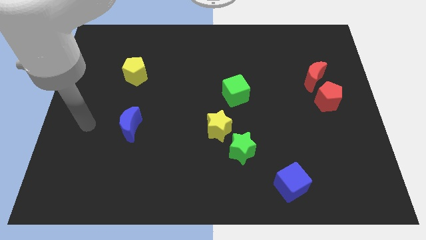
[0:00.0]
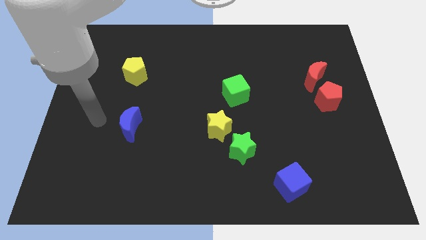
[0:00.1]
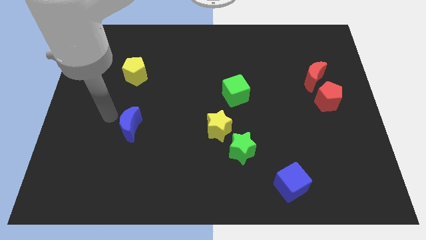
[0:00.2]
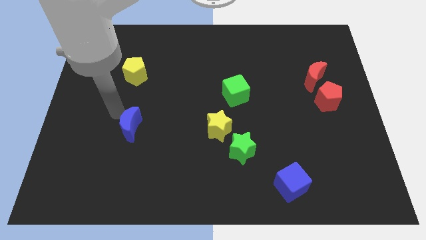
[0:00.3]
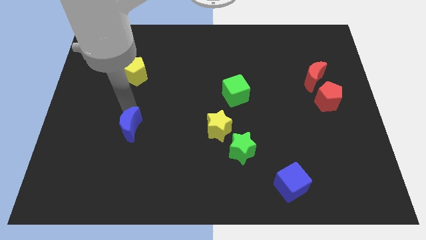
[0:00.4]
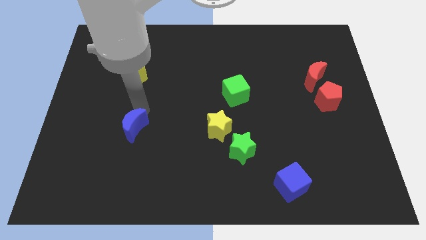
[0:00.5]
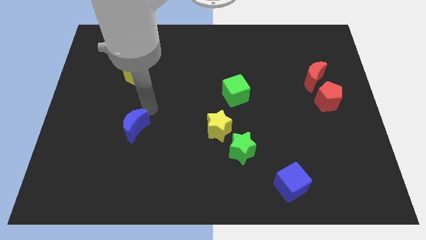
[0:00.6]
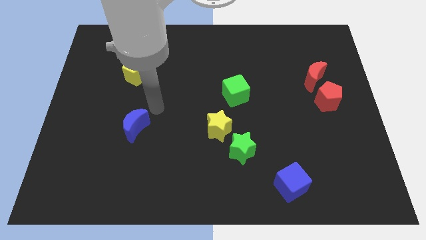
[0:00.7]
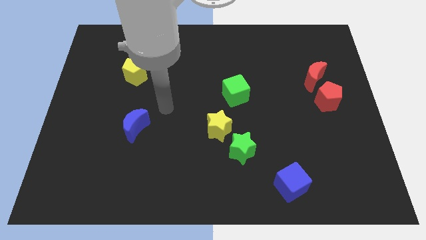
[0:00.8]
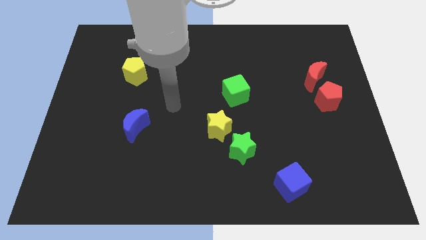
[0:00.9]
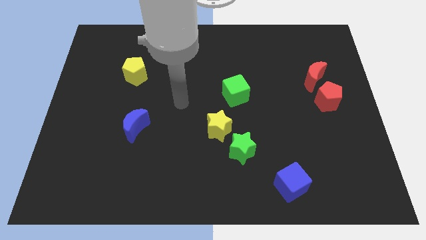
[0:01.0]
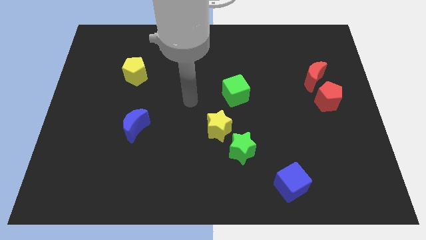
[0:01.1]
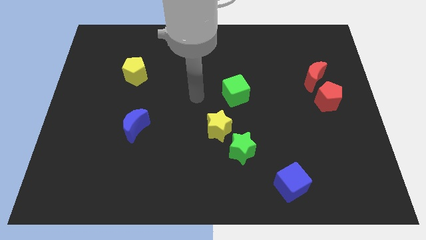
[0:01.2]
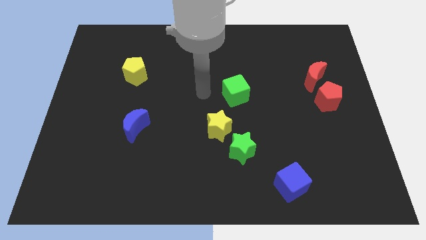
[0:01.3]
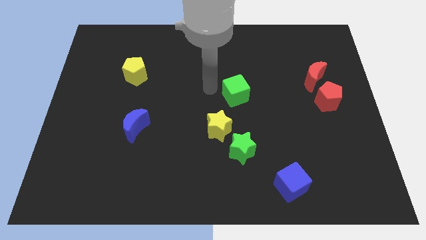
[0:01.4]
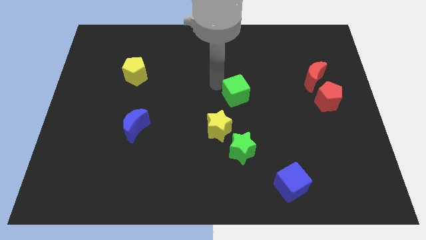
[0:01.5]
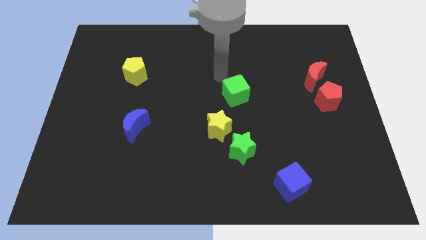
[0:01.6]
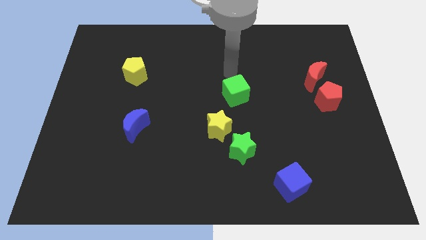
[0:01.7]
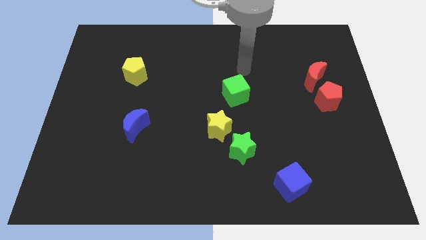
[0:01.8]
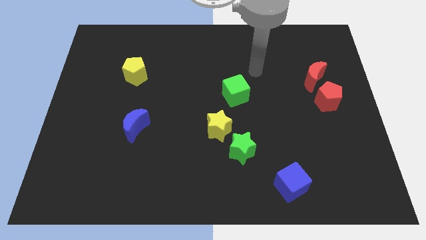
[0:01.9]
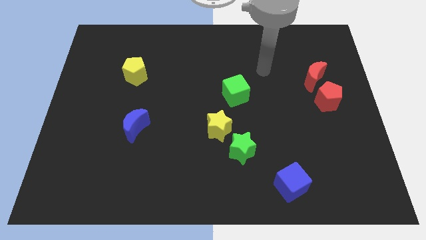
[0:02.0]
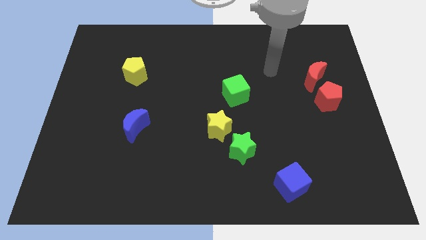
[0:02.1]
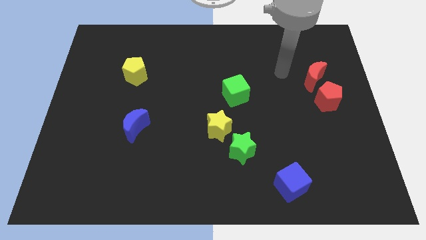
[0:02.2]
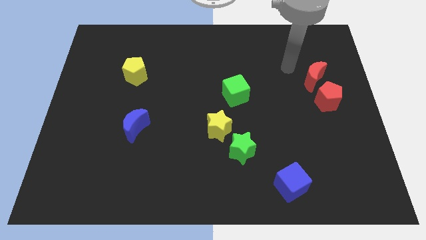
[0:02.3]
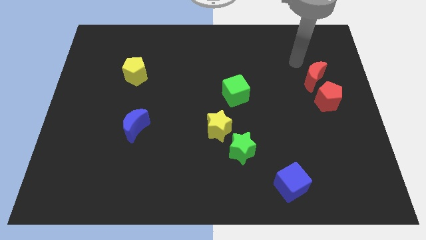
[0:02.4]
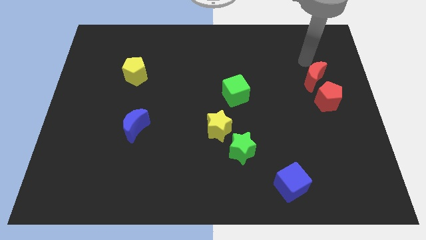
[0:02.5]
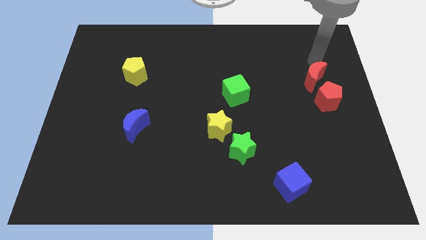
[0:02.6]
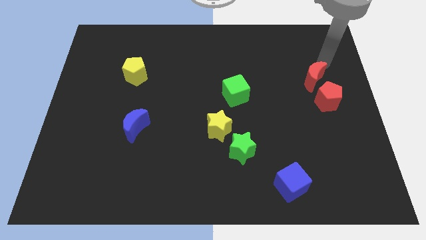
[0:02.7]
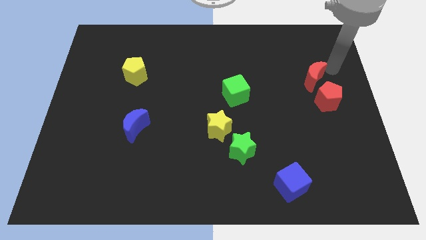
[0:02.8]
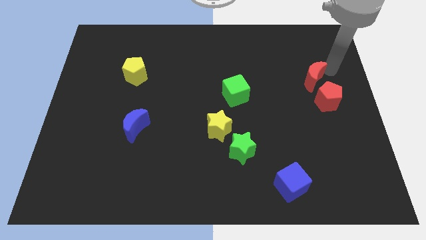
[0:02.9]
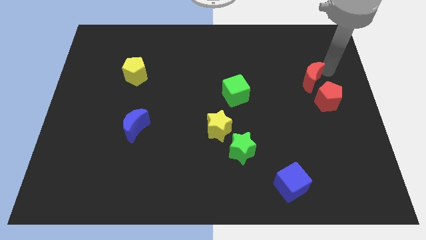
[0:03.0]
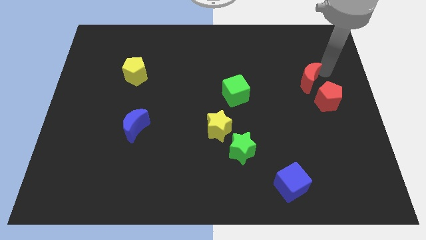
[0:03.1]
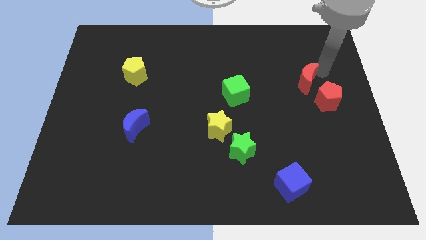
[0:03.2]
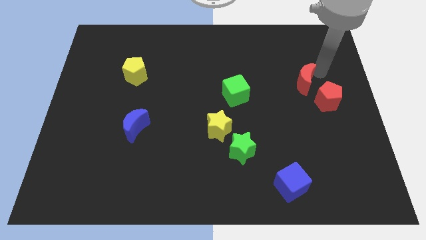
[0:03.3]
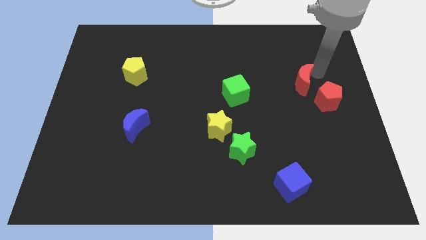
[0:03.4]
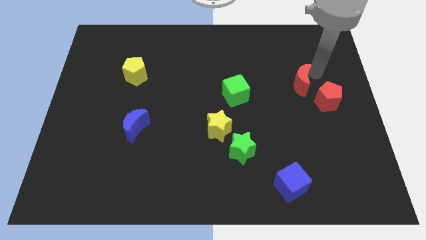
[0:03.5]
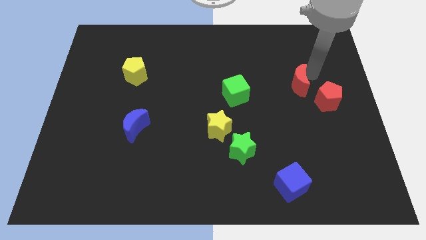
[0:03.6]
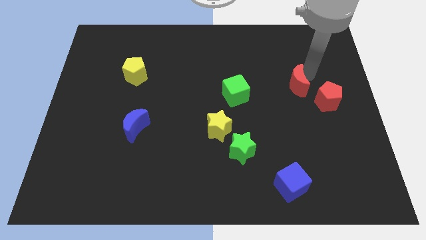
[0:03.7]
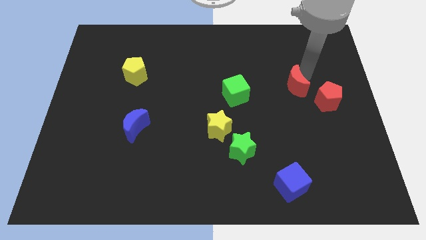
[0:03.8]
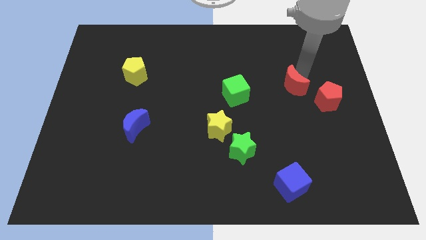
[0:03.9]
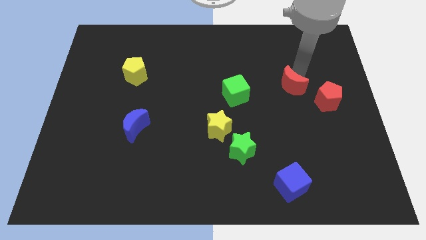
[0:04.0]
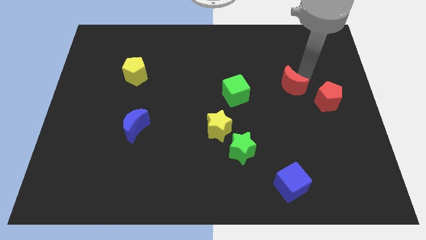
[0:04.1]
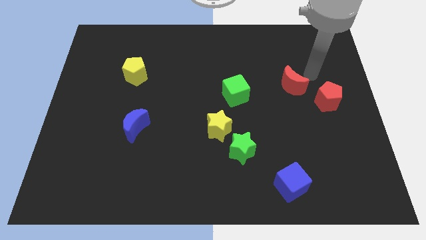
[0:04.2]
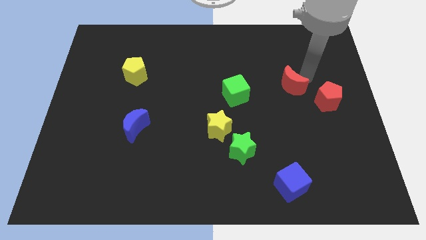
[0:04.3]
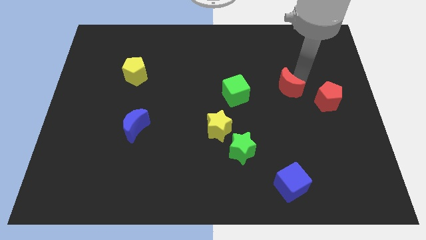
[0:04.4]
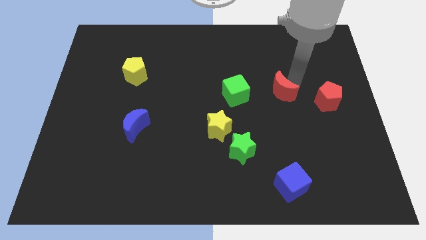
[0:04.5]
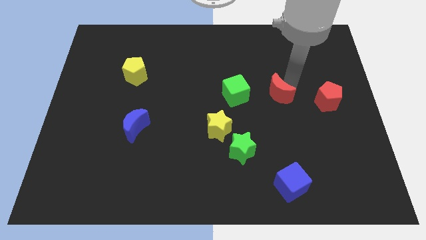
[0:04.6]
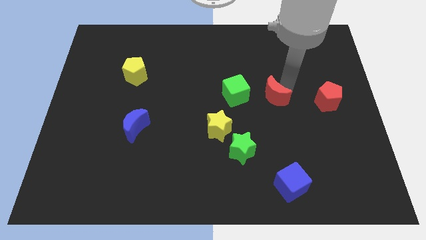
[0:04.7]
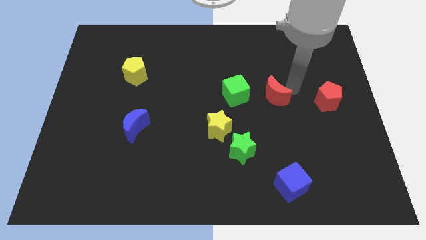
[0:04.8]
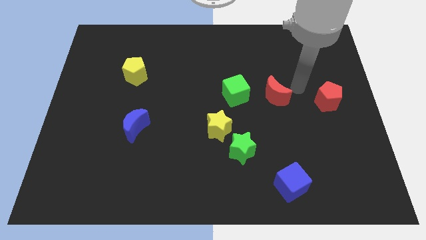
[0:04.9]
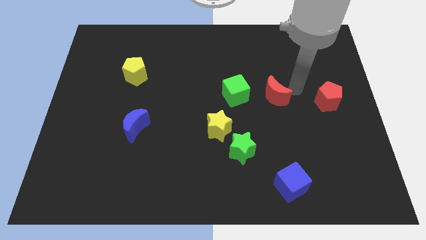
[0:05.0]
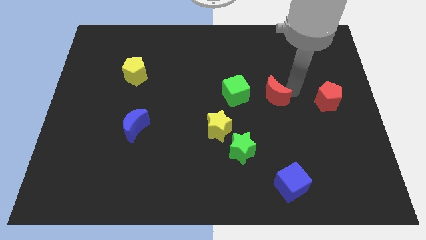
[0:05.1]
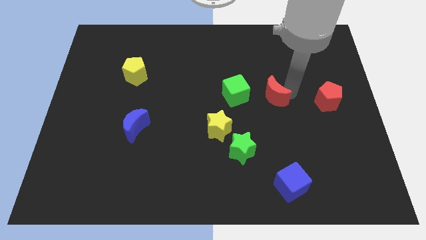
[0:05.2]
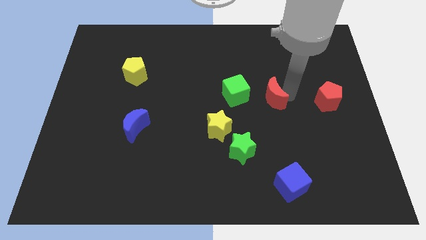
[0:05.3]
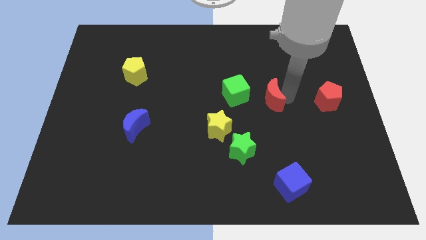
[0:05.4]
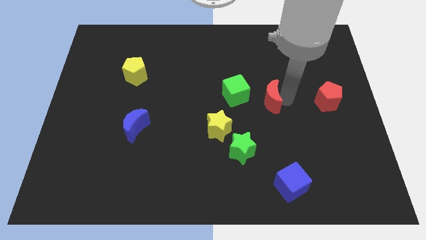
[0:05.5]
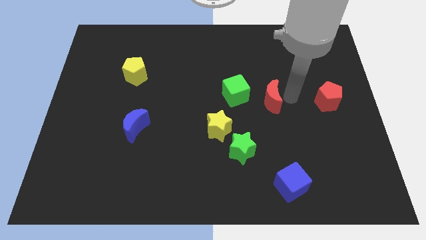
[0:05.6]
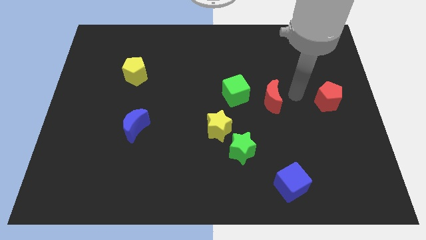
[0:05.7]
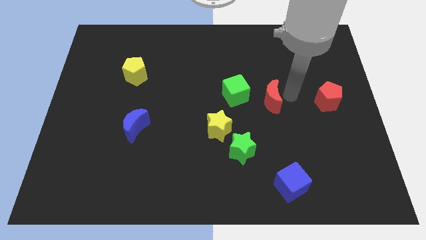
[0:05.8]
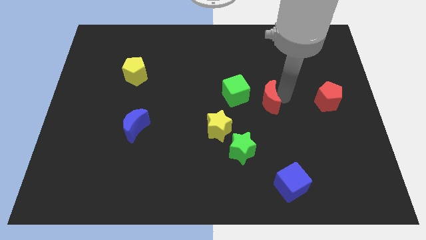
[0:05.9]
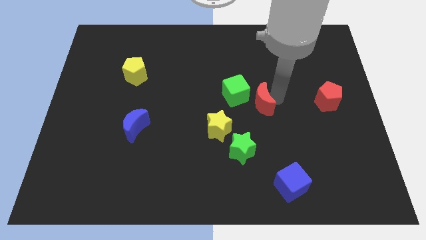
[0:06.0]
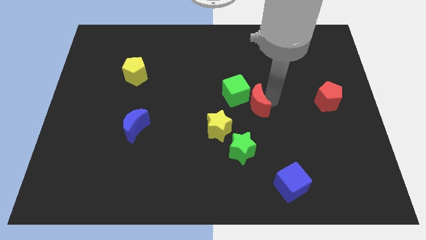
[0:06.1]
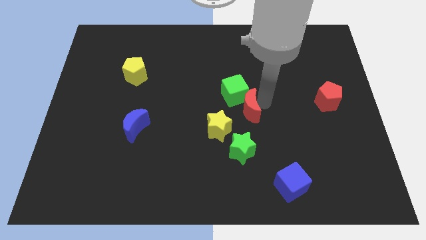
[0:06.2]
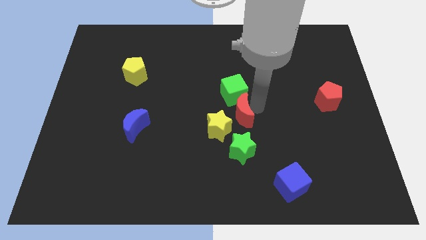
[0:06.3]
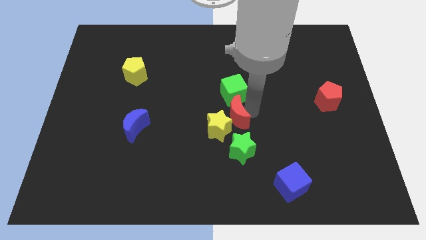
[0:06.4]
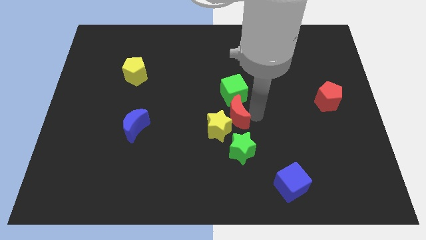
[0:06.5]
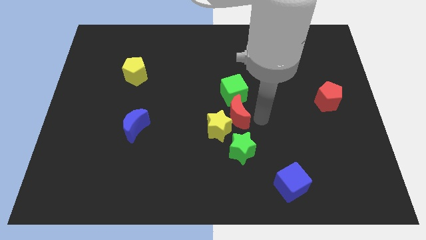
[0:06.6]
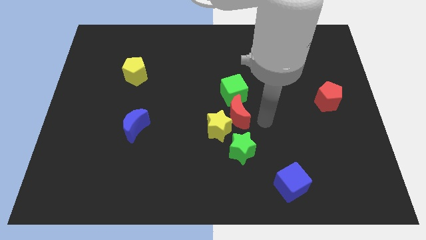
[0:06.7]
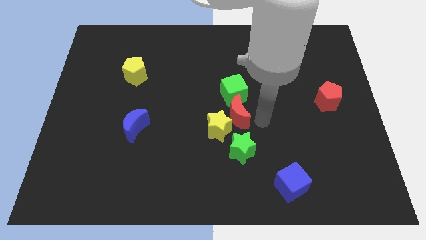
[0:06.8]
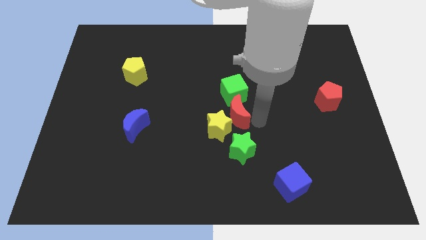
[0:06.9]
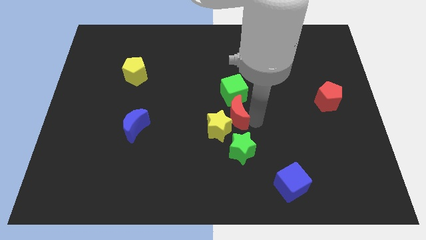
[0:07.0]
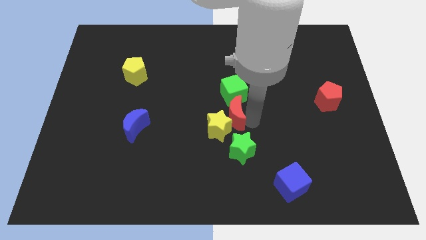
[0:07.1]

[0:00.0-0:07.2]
slide the red moon to the bottom left side of the green cube

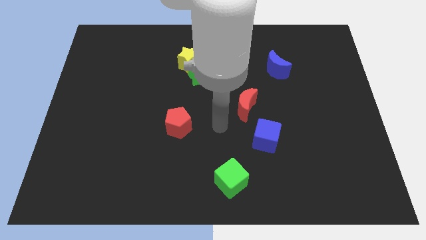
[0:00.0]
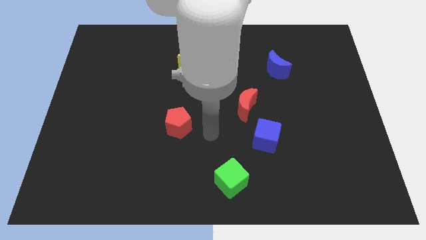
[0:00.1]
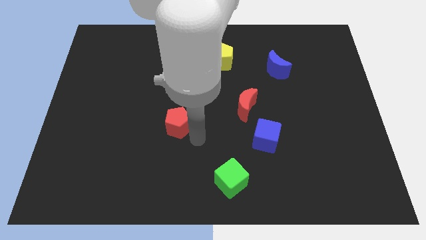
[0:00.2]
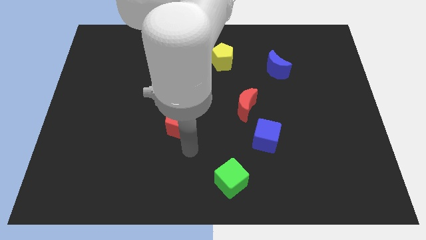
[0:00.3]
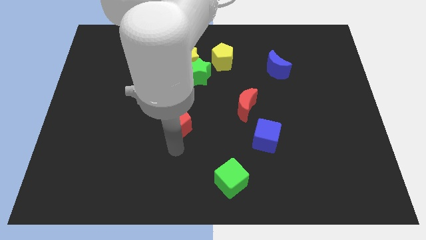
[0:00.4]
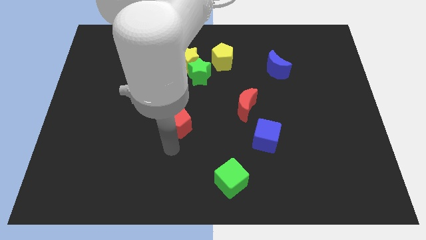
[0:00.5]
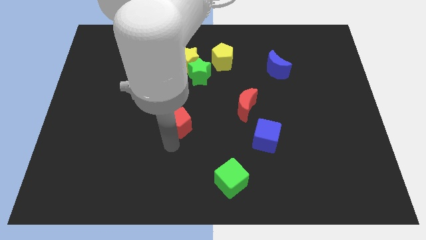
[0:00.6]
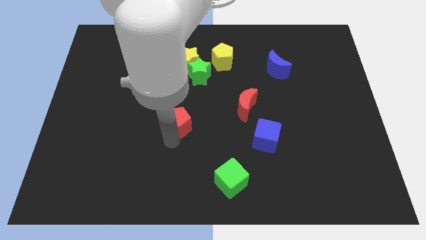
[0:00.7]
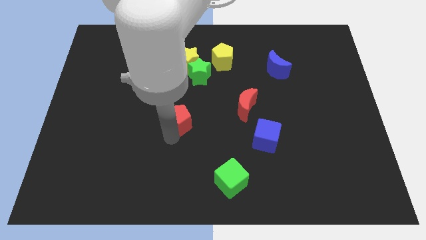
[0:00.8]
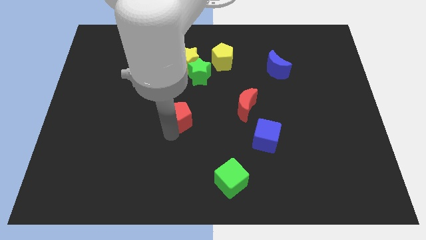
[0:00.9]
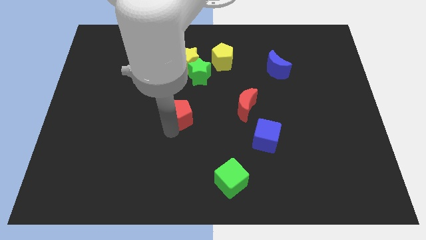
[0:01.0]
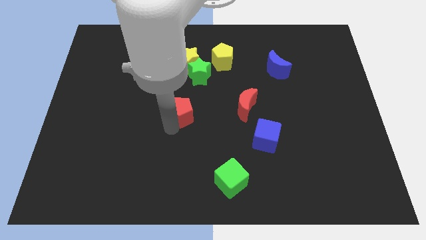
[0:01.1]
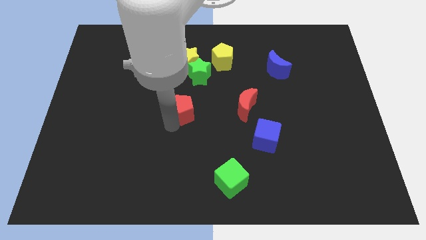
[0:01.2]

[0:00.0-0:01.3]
put the red pentagon below the yellow star
